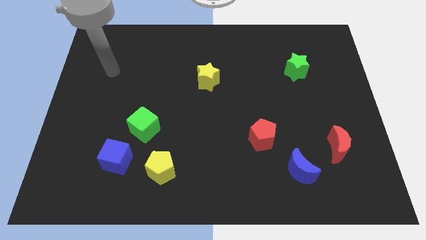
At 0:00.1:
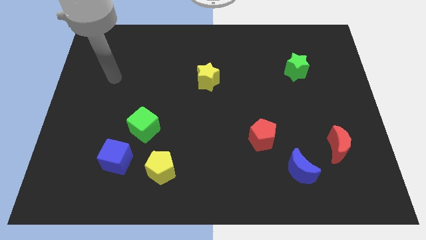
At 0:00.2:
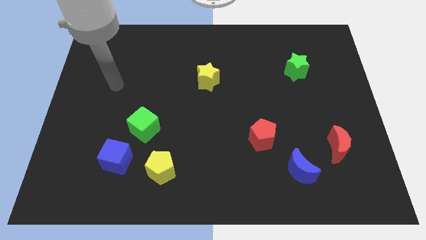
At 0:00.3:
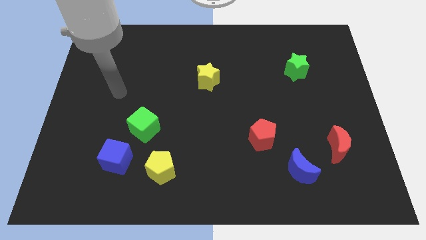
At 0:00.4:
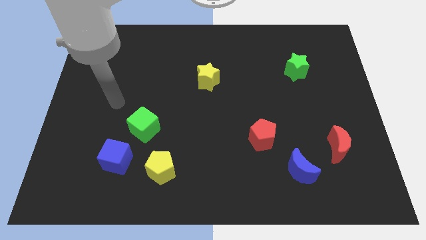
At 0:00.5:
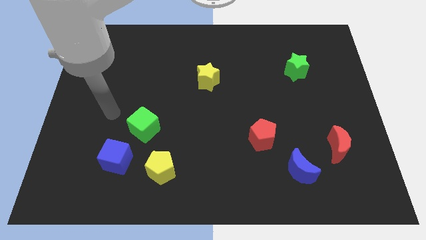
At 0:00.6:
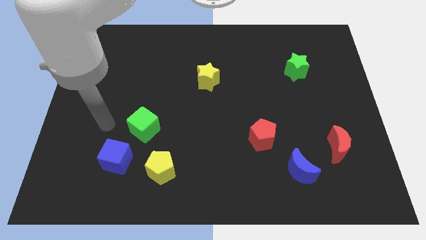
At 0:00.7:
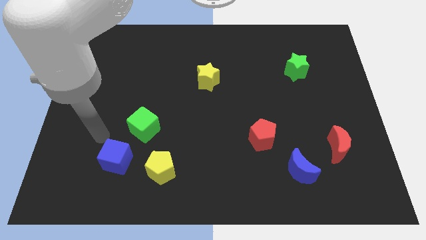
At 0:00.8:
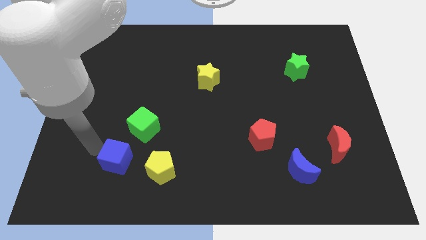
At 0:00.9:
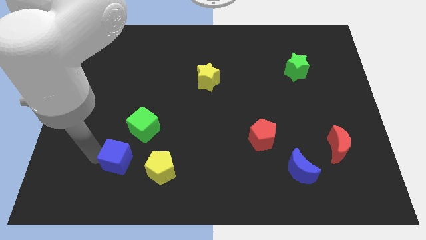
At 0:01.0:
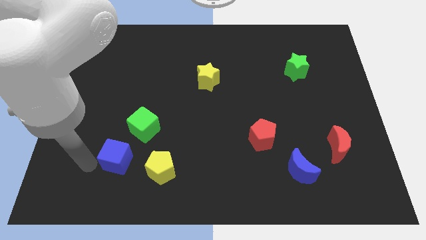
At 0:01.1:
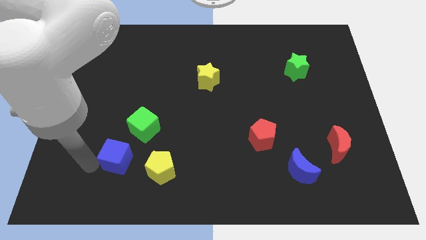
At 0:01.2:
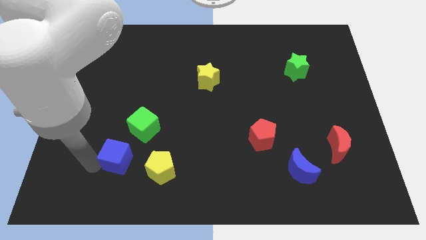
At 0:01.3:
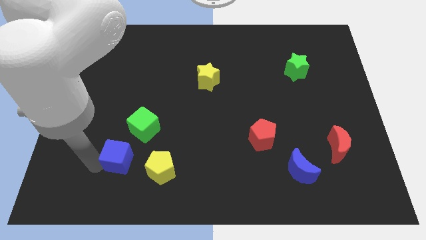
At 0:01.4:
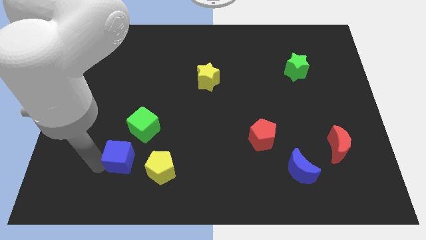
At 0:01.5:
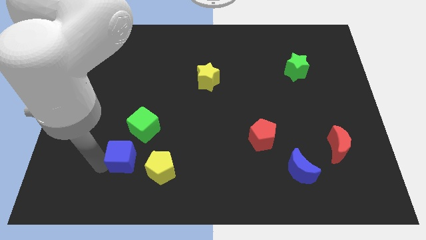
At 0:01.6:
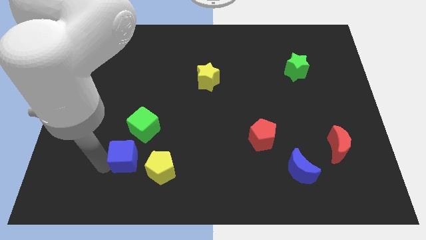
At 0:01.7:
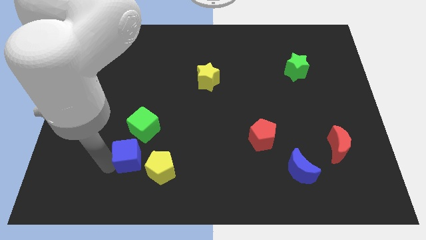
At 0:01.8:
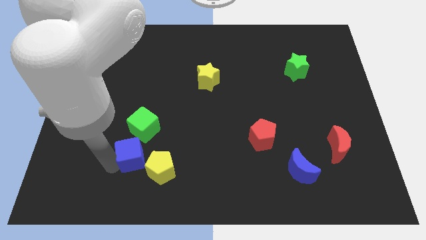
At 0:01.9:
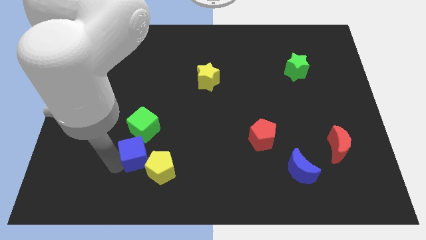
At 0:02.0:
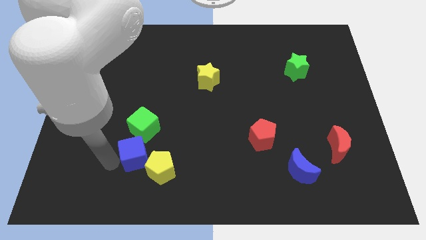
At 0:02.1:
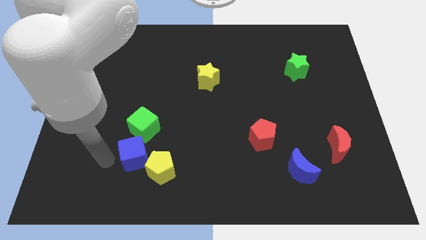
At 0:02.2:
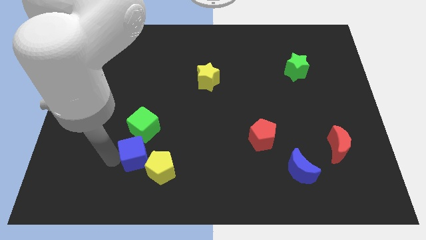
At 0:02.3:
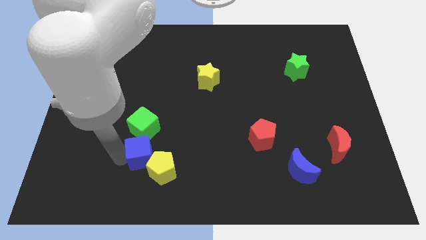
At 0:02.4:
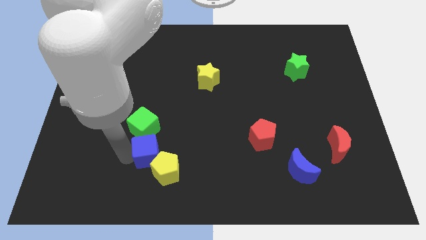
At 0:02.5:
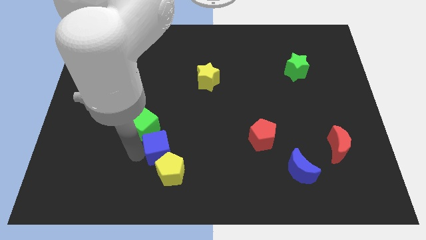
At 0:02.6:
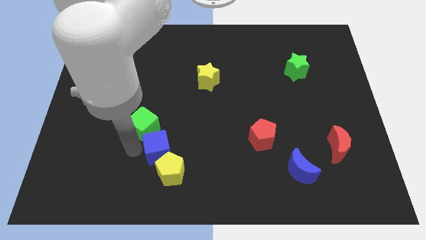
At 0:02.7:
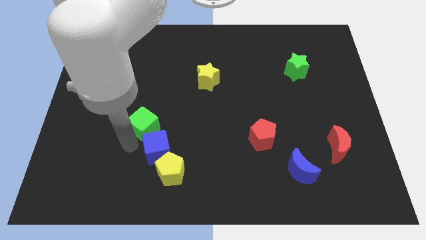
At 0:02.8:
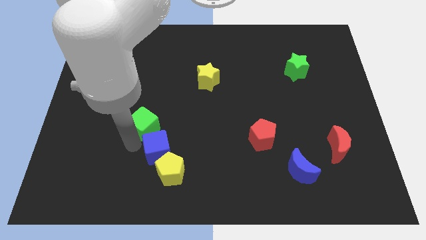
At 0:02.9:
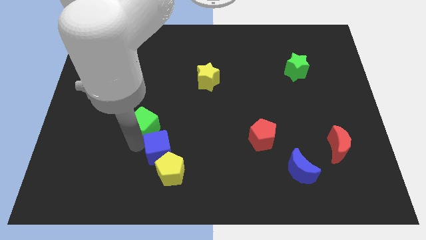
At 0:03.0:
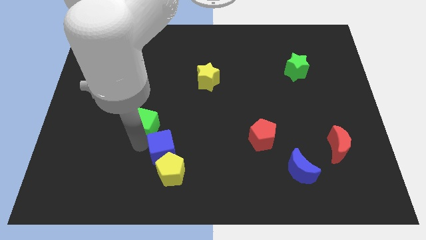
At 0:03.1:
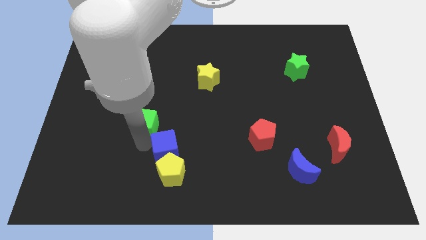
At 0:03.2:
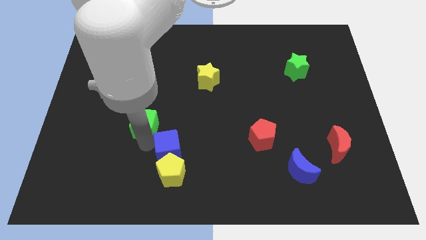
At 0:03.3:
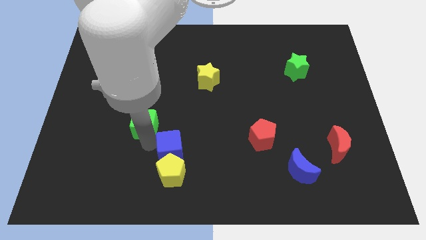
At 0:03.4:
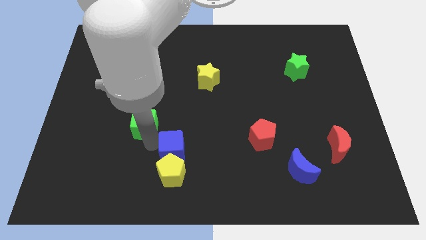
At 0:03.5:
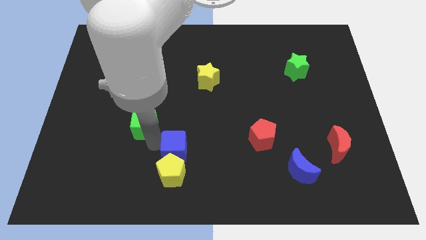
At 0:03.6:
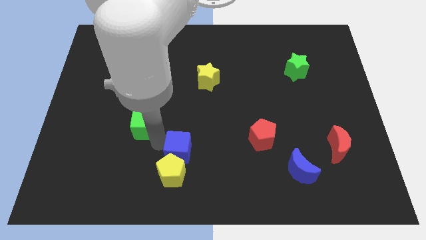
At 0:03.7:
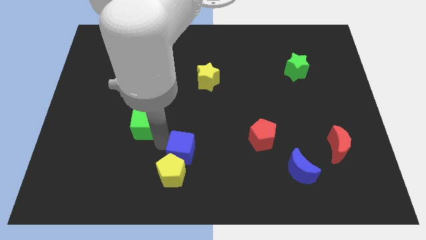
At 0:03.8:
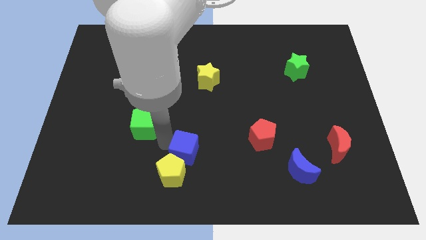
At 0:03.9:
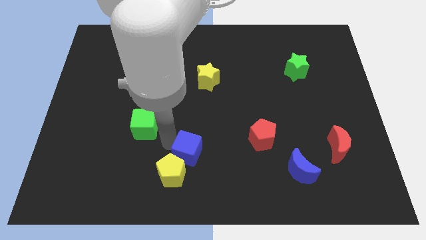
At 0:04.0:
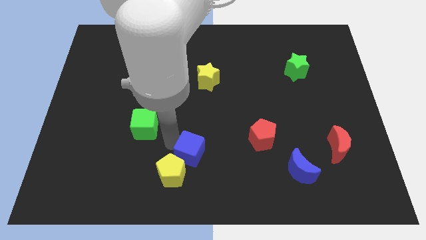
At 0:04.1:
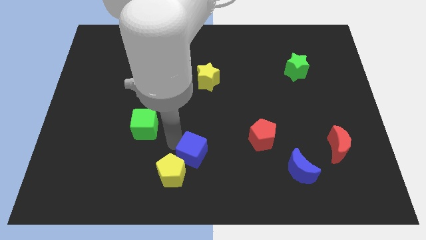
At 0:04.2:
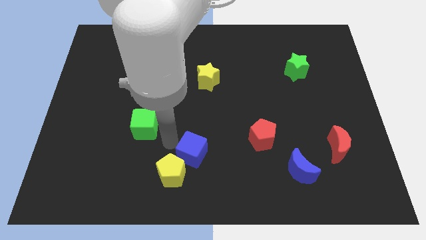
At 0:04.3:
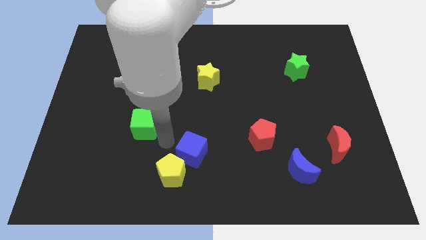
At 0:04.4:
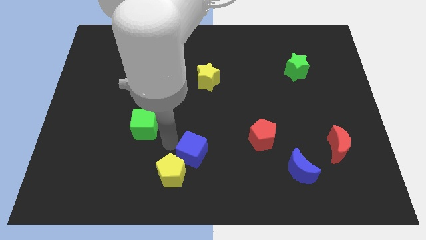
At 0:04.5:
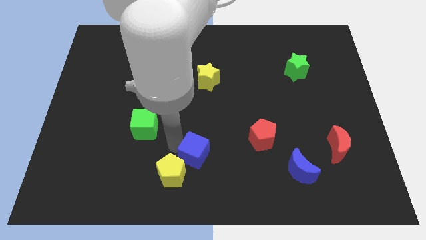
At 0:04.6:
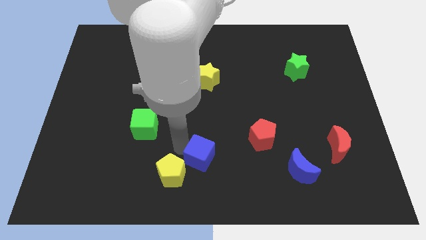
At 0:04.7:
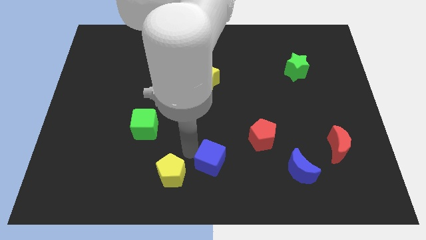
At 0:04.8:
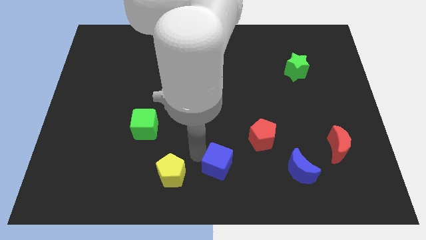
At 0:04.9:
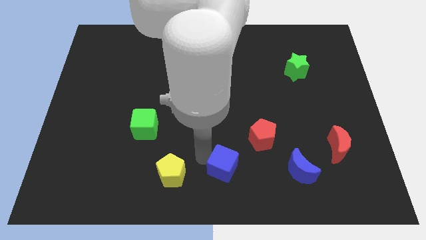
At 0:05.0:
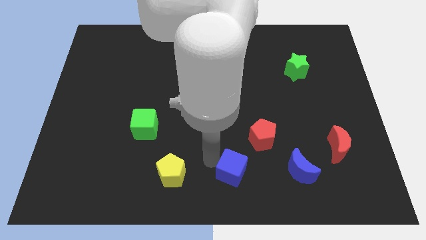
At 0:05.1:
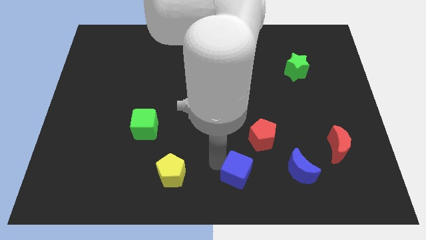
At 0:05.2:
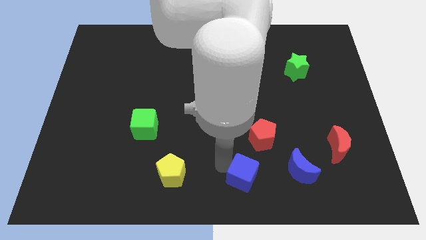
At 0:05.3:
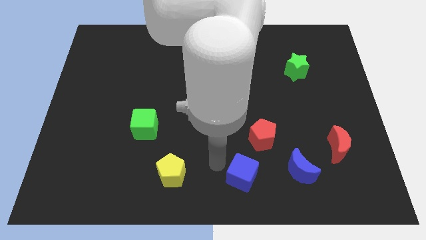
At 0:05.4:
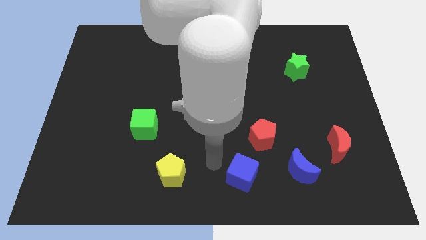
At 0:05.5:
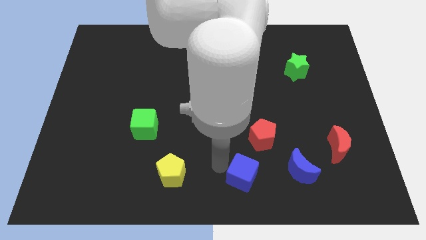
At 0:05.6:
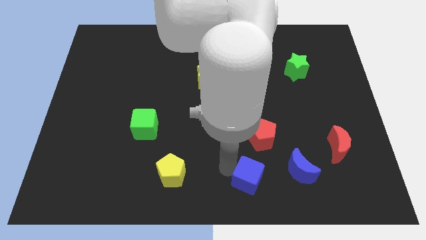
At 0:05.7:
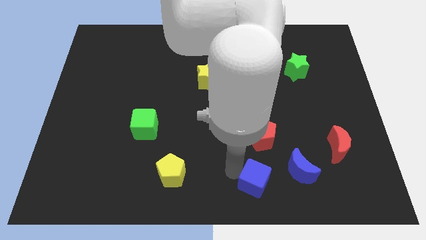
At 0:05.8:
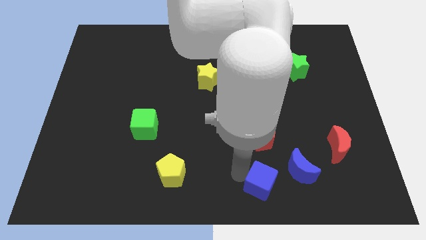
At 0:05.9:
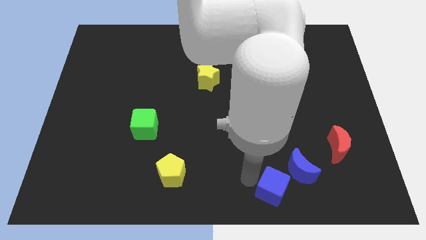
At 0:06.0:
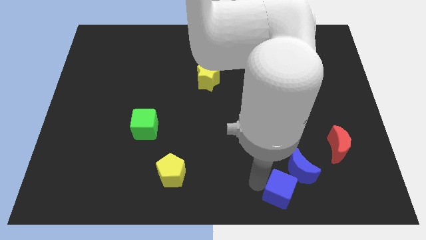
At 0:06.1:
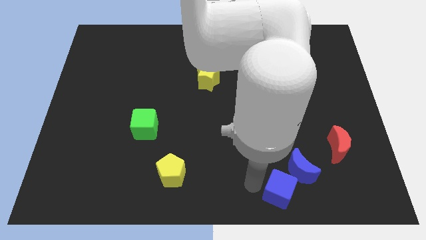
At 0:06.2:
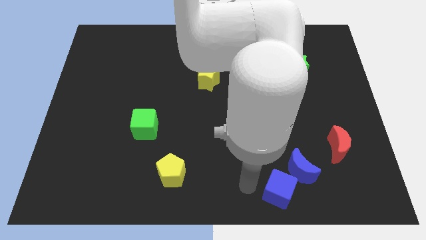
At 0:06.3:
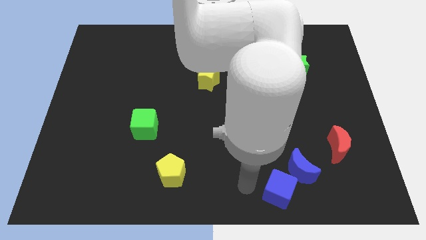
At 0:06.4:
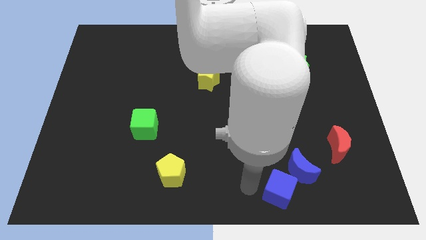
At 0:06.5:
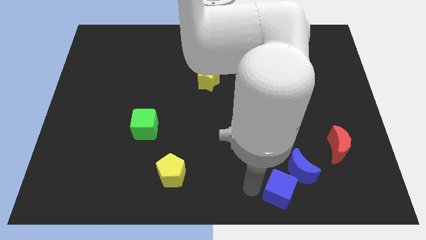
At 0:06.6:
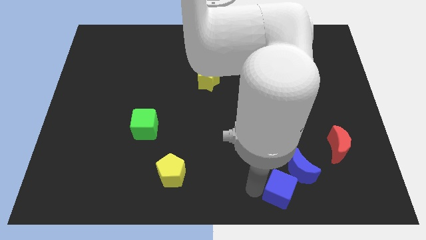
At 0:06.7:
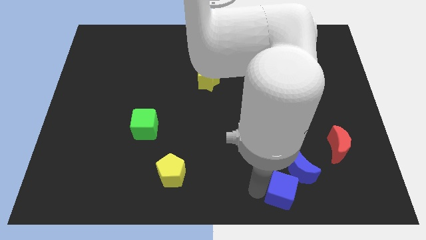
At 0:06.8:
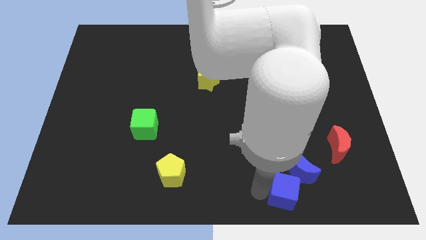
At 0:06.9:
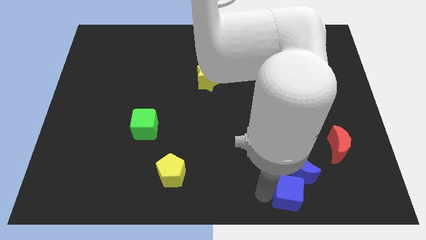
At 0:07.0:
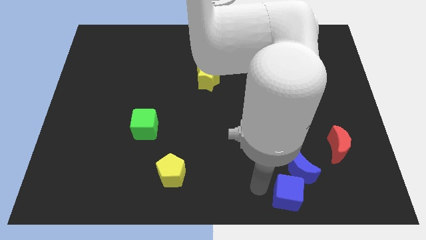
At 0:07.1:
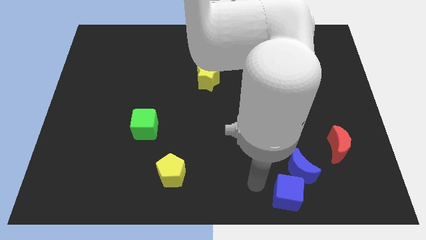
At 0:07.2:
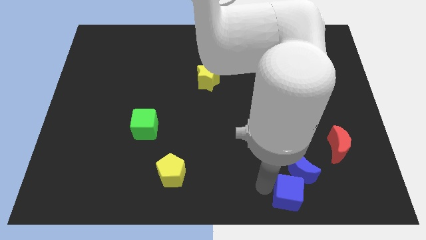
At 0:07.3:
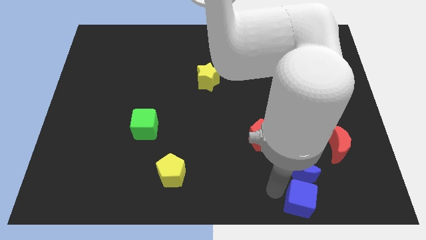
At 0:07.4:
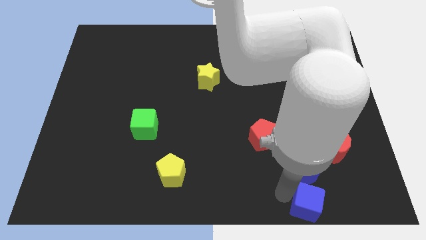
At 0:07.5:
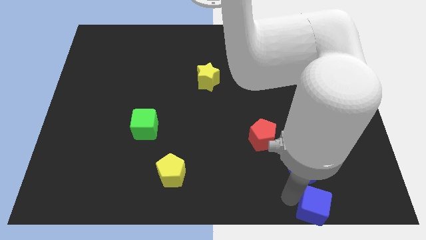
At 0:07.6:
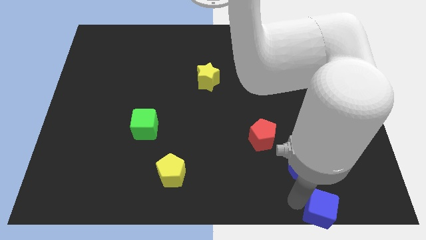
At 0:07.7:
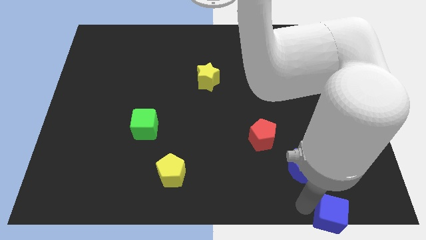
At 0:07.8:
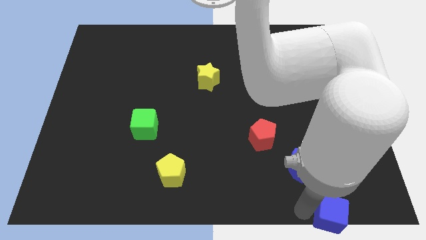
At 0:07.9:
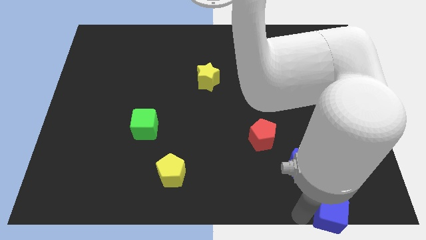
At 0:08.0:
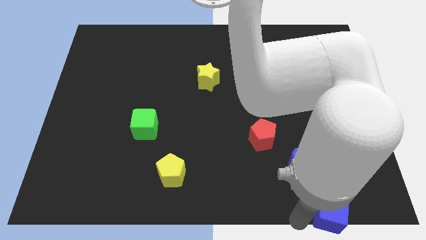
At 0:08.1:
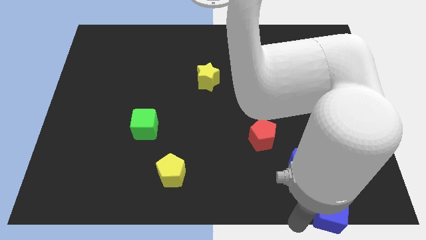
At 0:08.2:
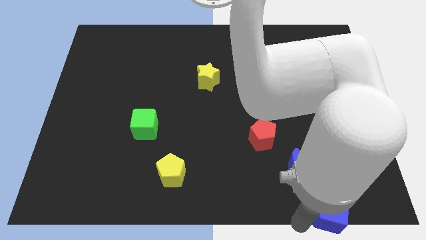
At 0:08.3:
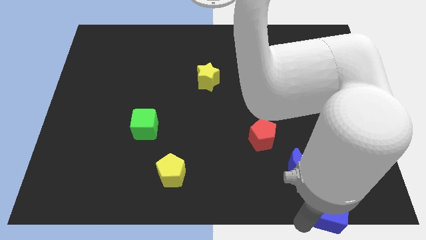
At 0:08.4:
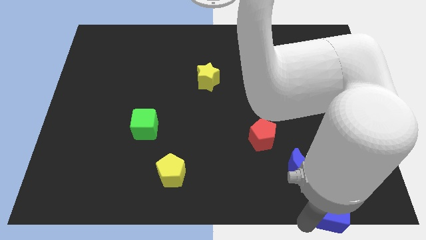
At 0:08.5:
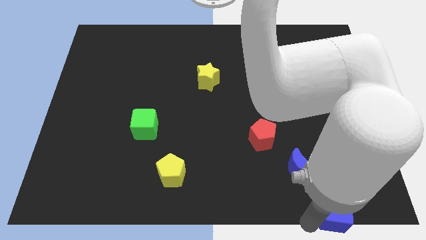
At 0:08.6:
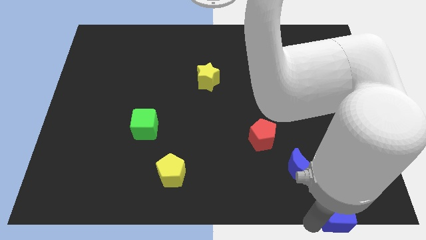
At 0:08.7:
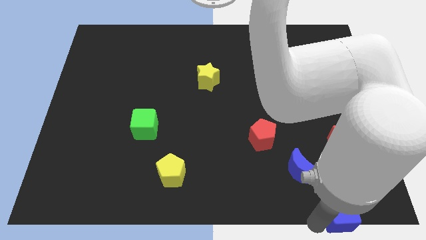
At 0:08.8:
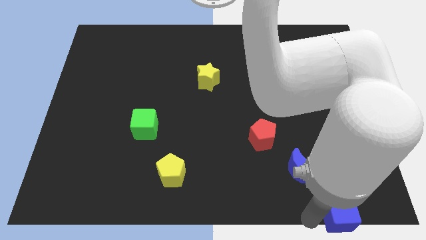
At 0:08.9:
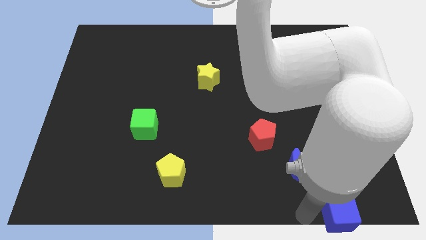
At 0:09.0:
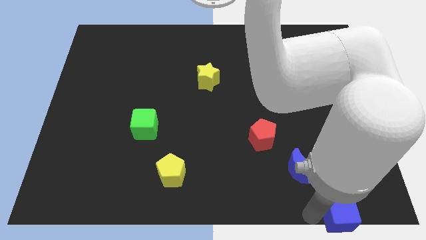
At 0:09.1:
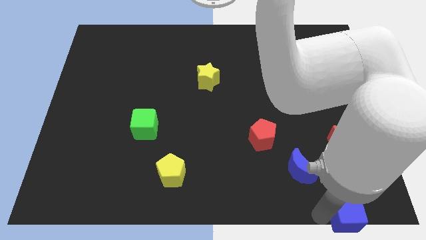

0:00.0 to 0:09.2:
move the blue cube to the bottom right corner
